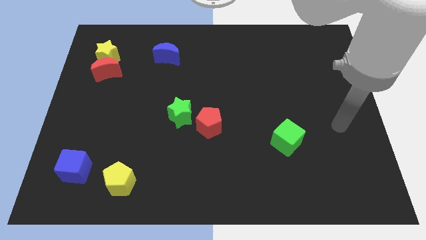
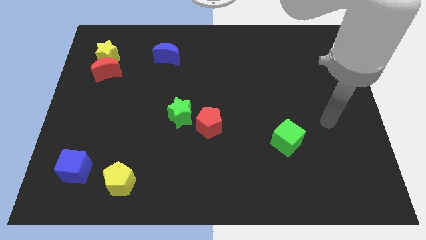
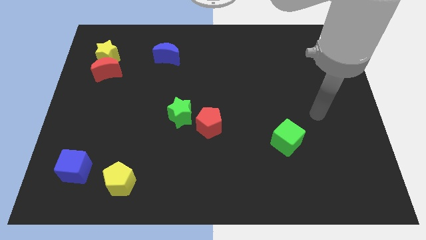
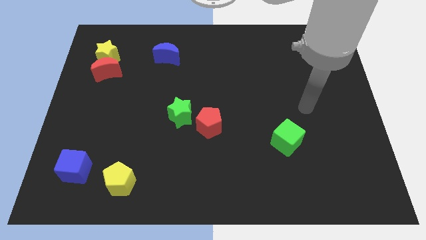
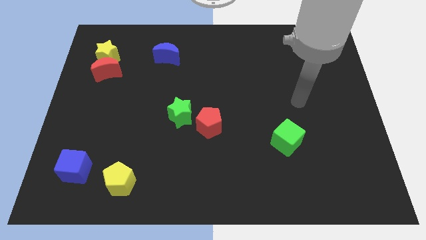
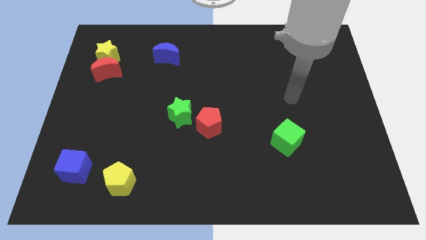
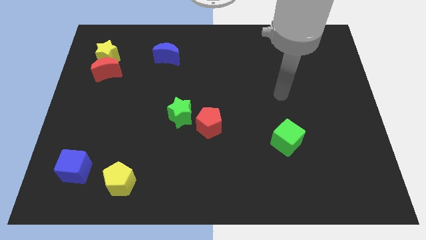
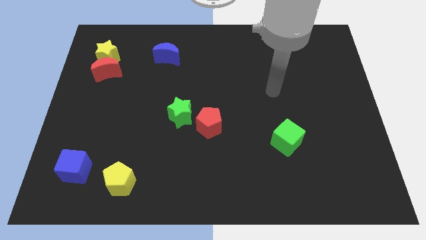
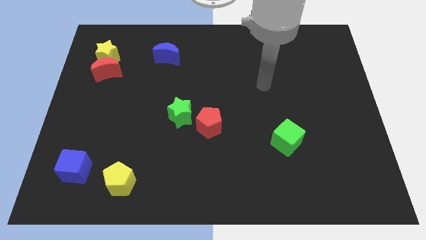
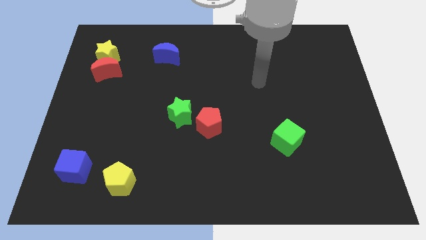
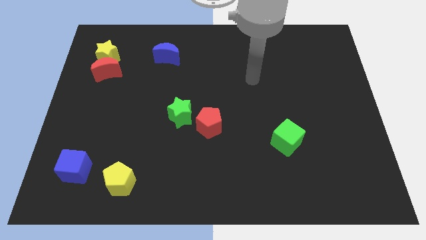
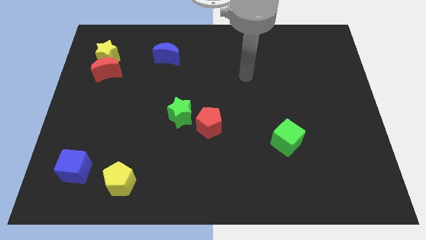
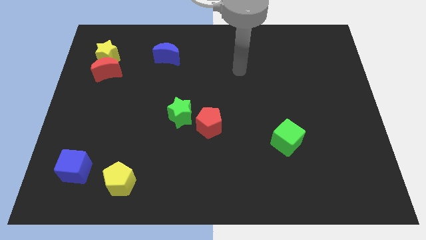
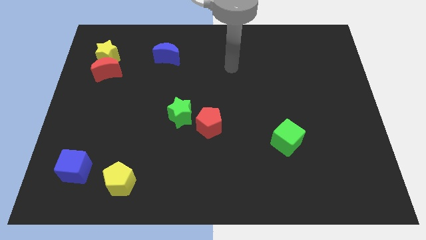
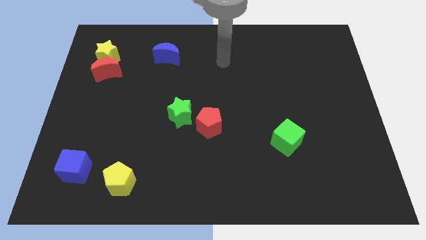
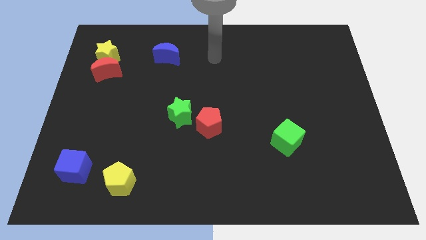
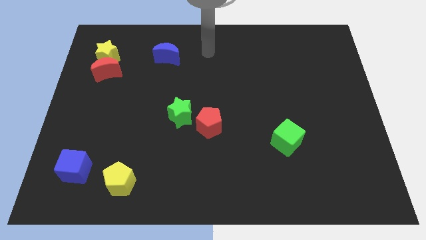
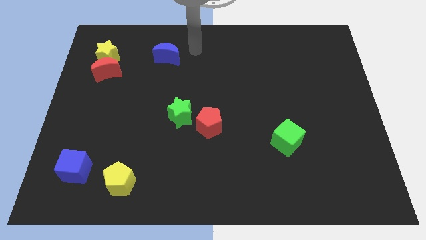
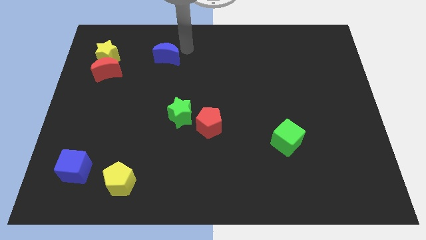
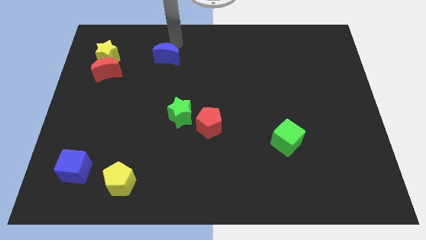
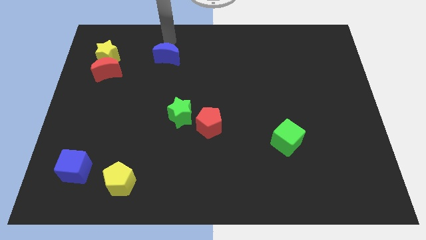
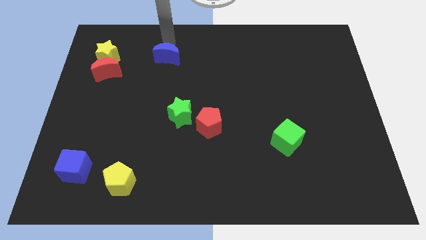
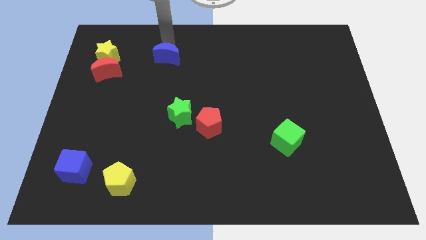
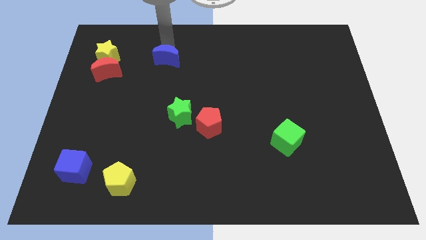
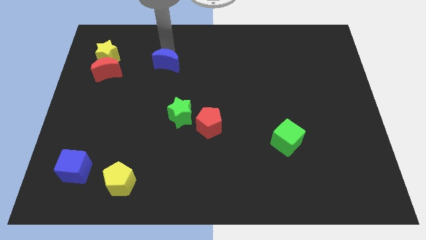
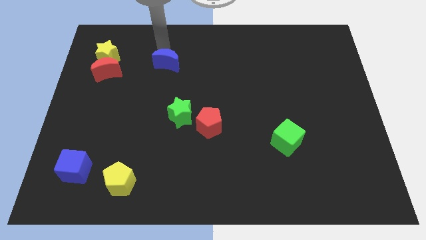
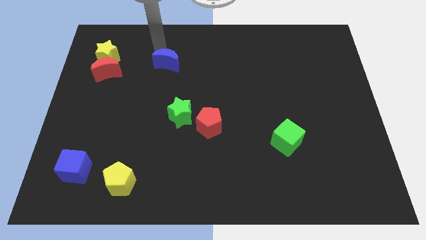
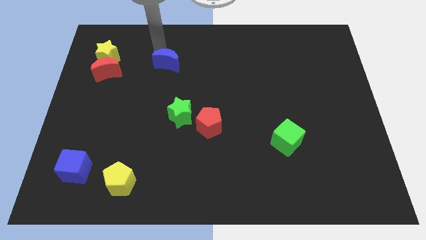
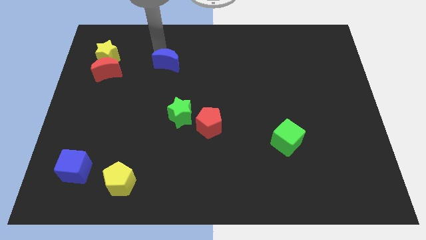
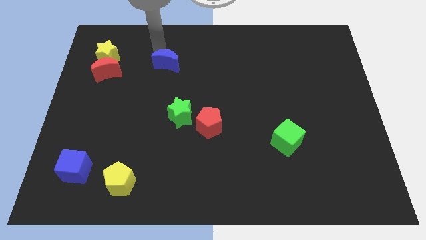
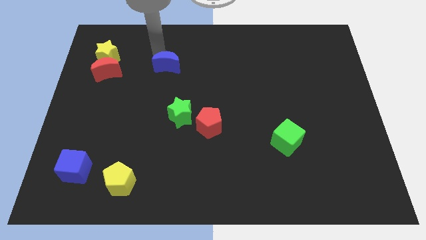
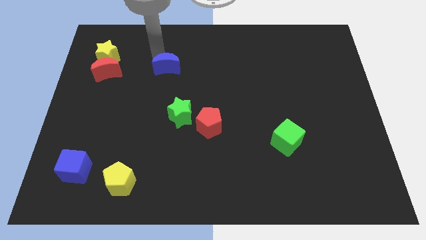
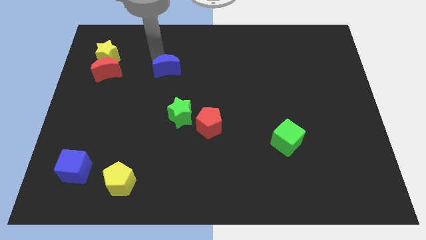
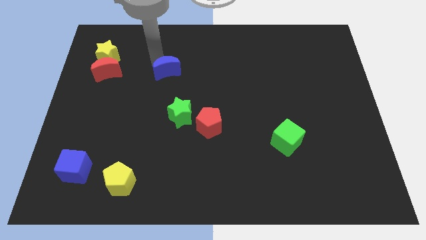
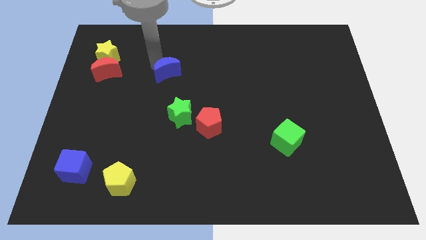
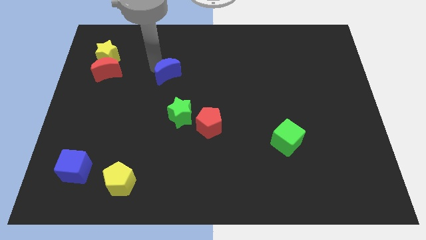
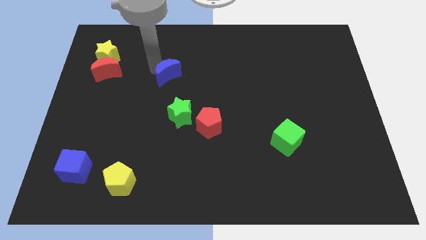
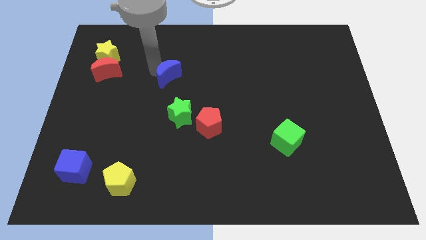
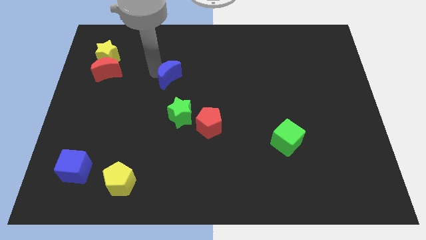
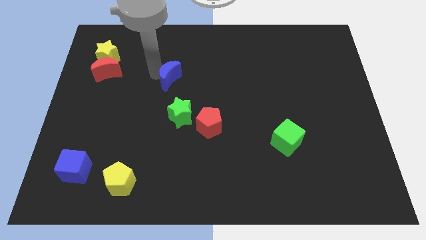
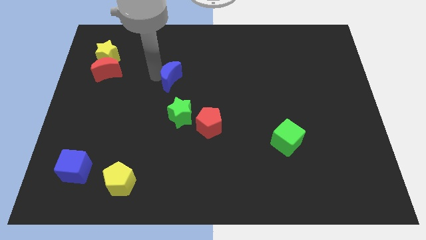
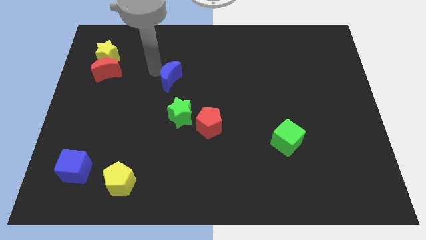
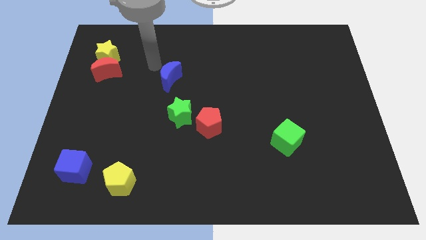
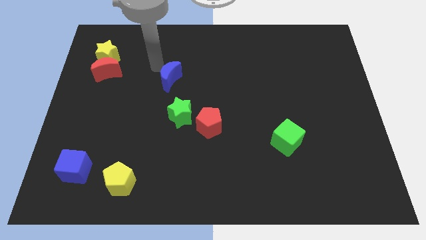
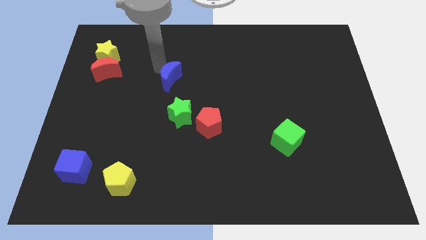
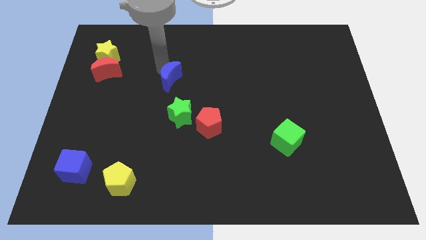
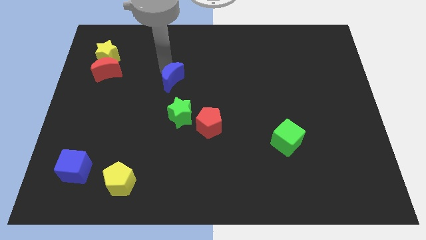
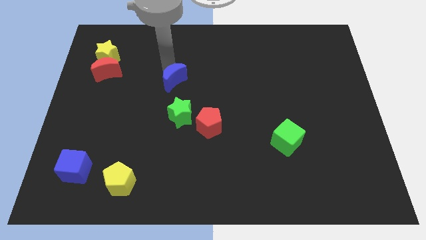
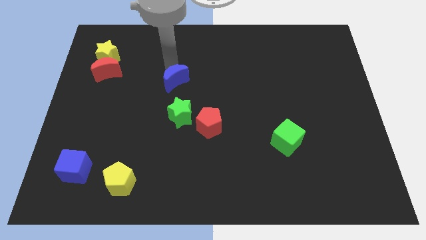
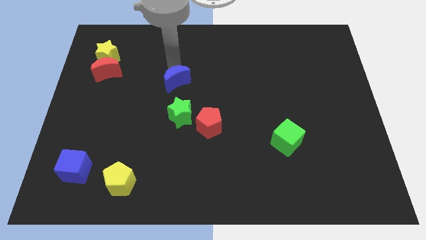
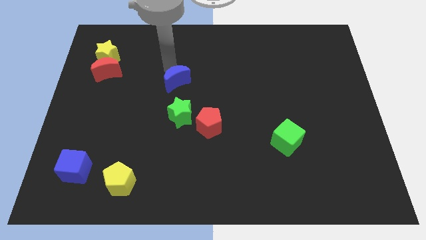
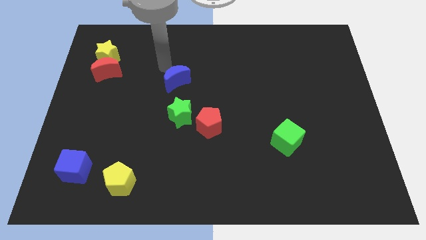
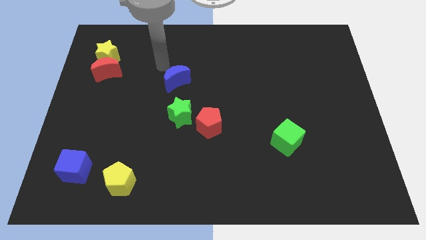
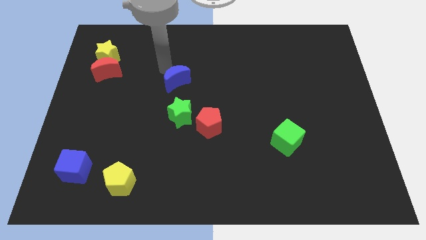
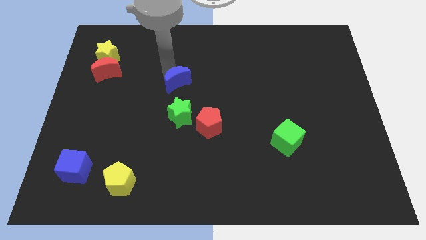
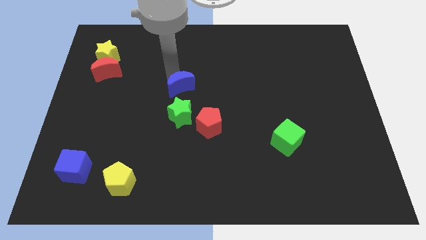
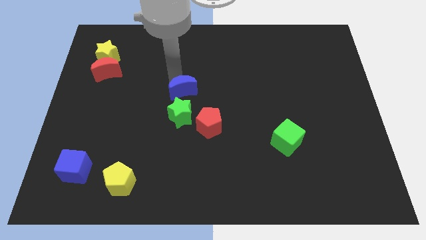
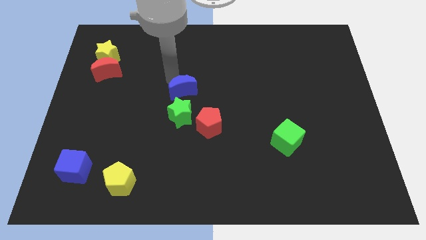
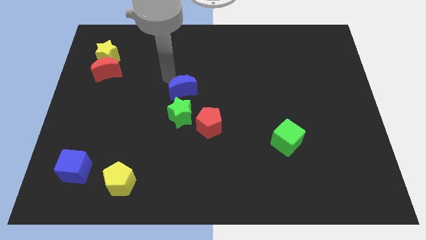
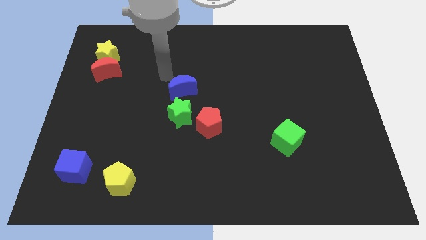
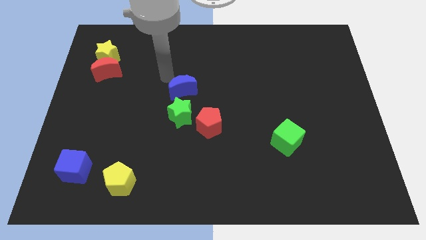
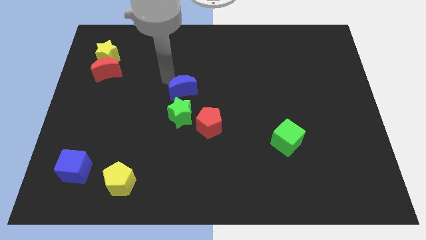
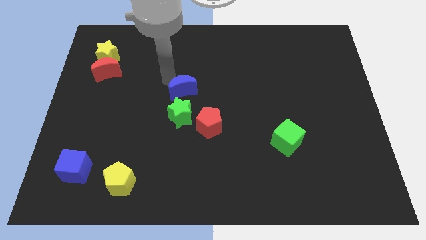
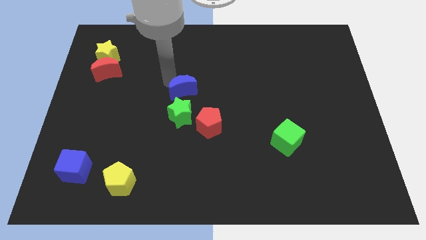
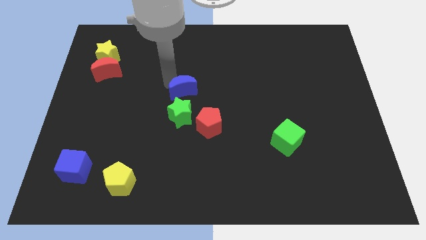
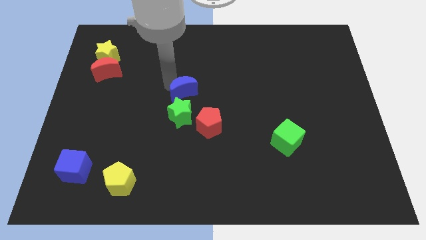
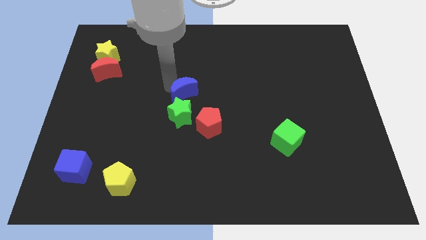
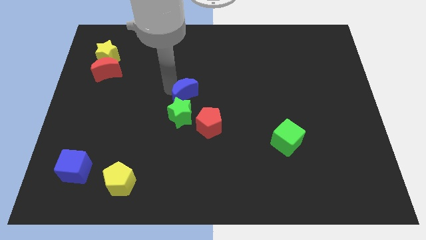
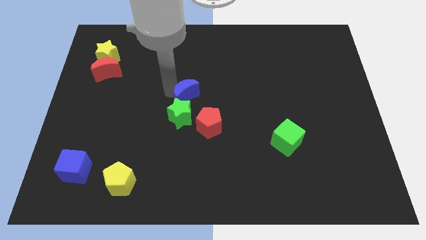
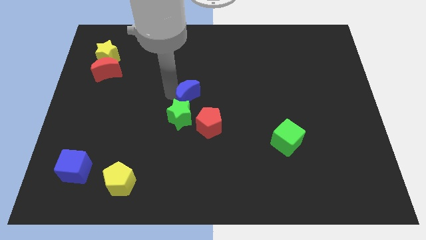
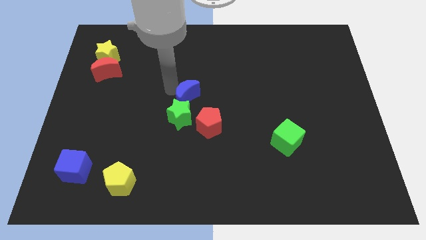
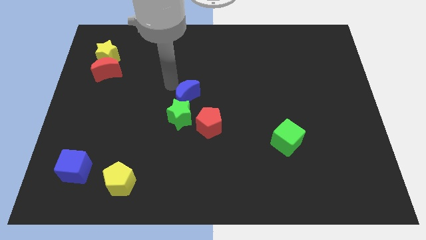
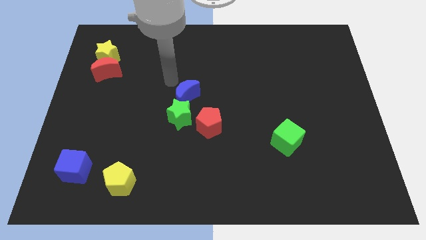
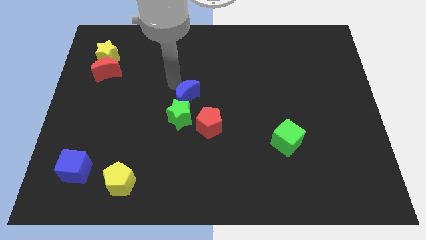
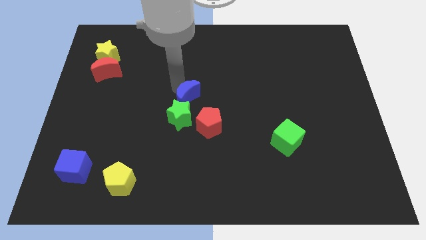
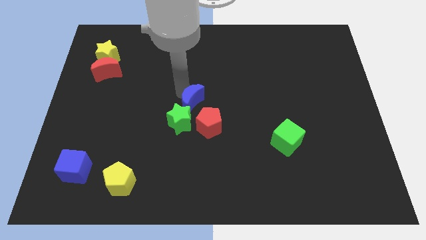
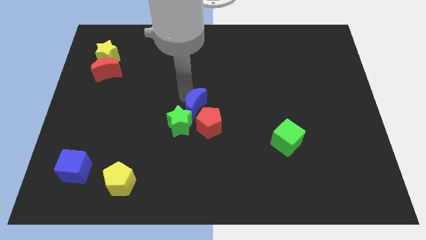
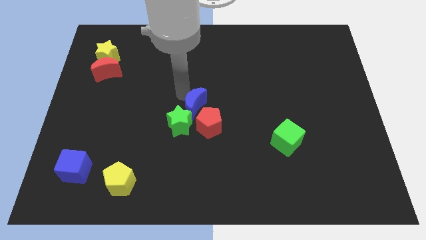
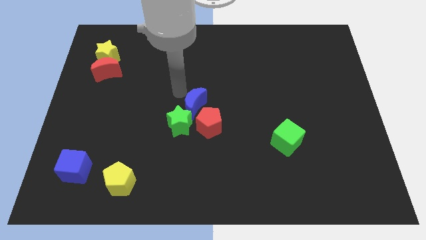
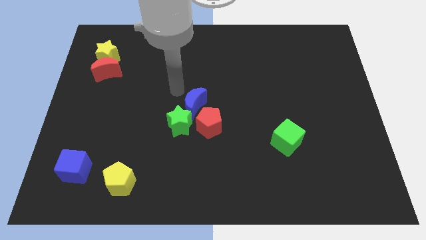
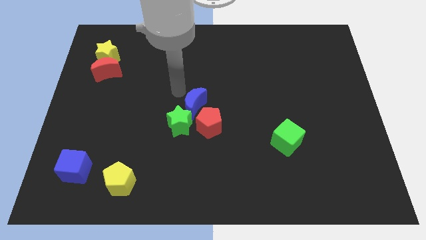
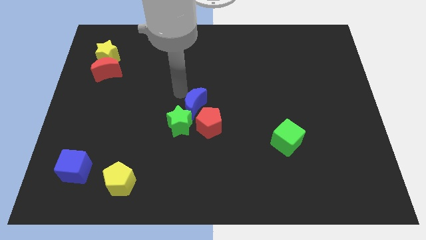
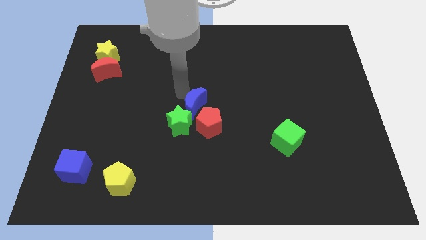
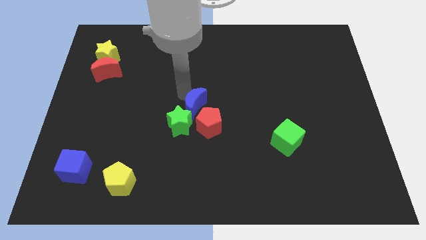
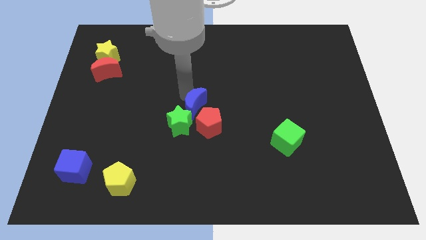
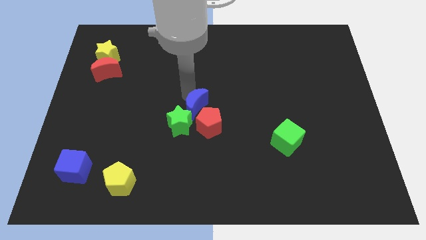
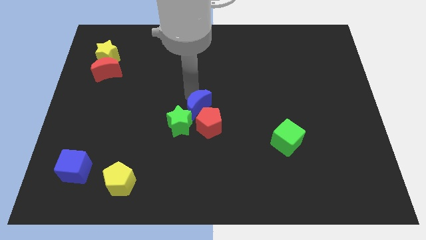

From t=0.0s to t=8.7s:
slide the blue moon next to the red pentagon
